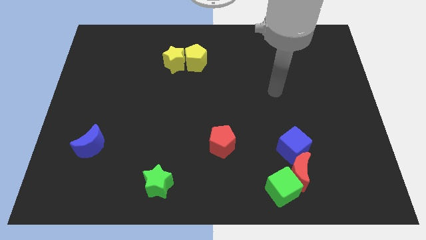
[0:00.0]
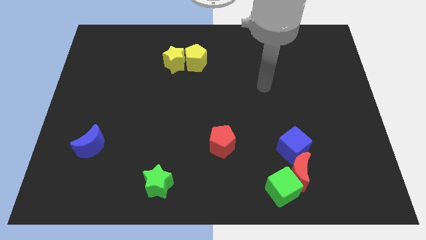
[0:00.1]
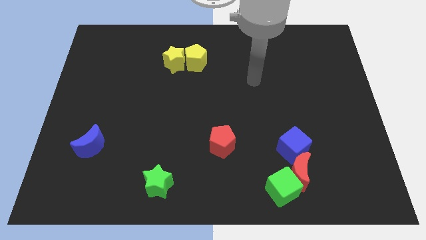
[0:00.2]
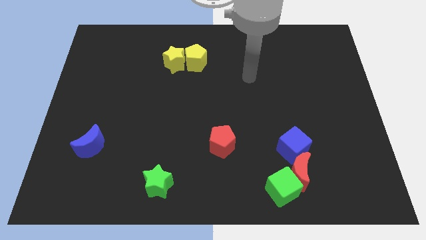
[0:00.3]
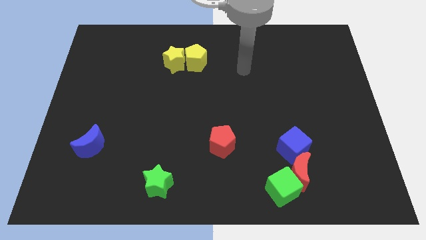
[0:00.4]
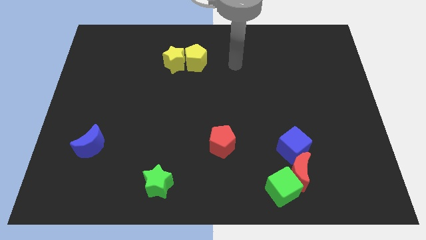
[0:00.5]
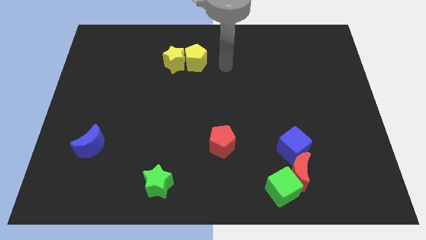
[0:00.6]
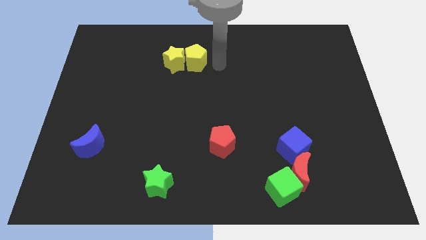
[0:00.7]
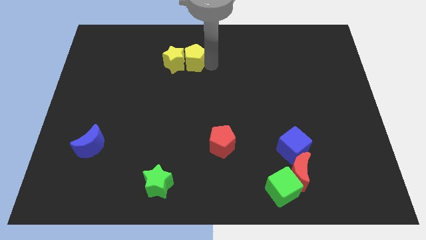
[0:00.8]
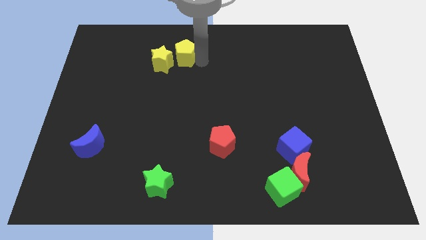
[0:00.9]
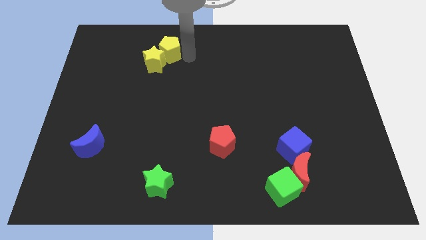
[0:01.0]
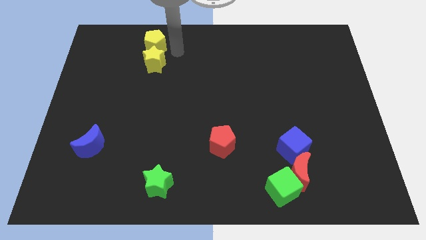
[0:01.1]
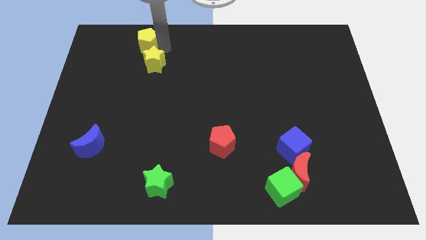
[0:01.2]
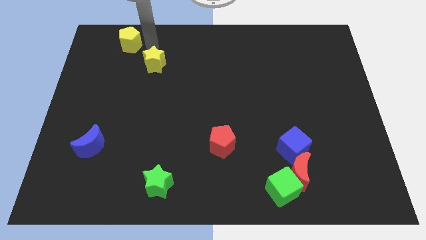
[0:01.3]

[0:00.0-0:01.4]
separate the yellow star from the yellow pentagon

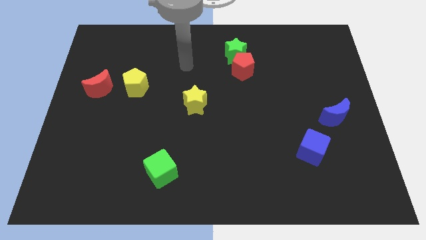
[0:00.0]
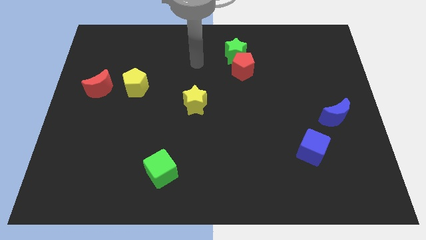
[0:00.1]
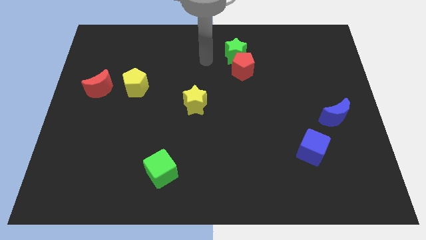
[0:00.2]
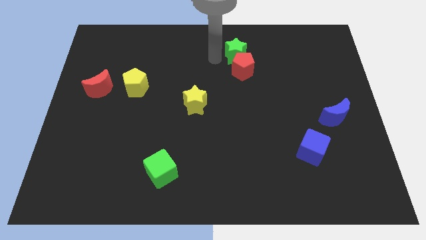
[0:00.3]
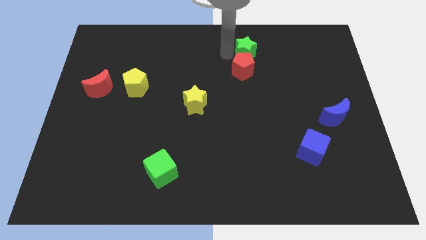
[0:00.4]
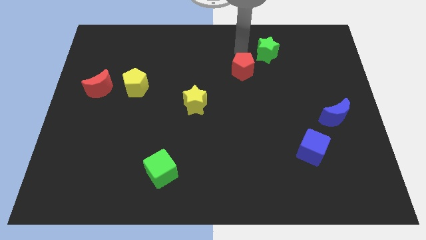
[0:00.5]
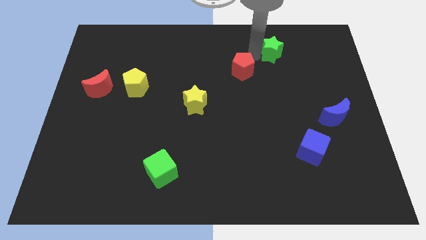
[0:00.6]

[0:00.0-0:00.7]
separate the red pentagon from the green star

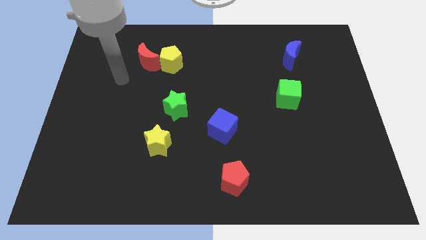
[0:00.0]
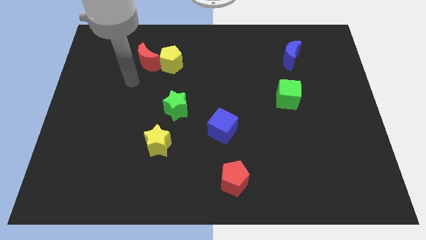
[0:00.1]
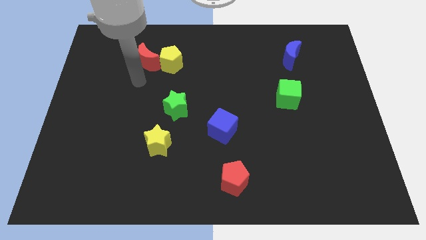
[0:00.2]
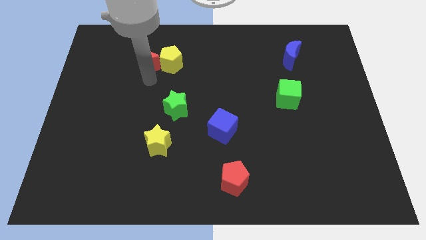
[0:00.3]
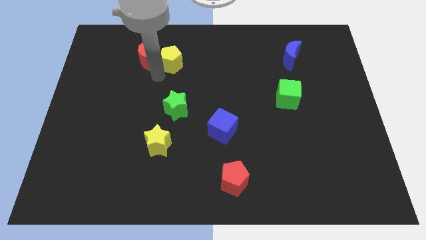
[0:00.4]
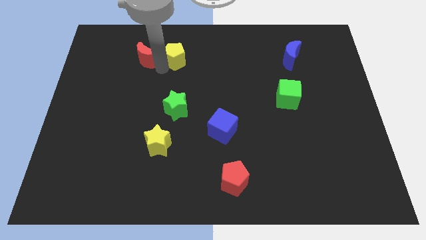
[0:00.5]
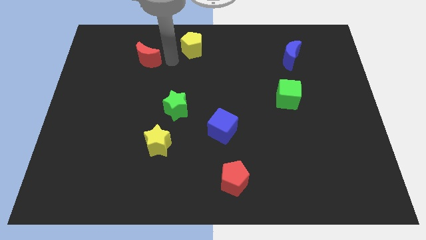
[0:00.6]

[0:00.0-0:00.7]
move the red moon away from the yellow pentagon

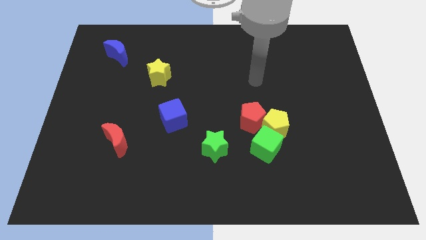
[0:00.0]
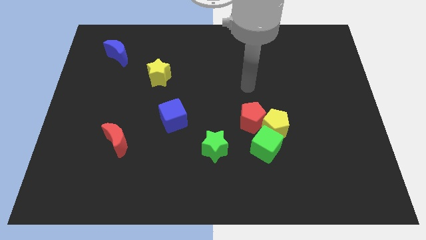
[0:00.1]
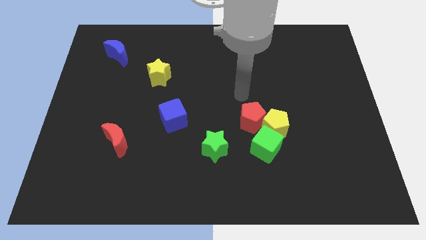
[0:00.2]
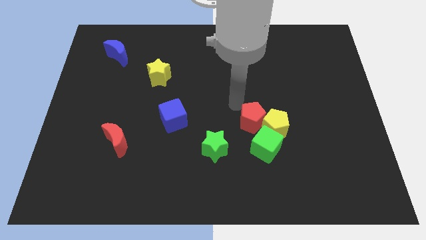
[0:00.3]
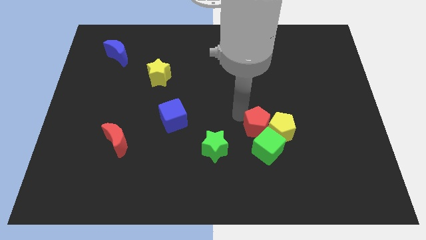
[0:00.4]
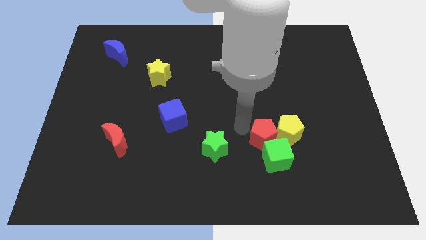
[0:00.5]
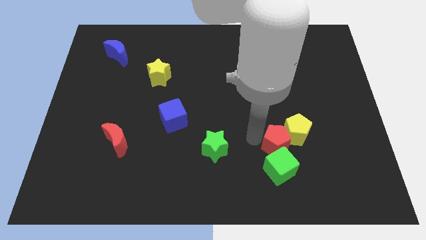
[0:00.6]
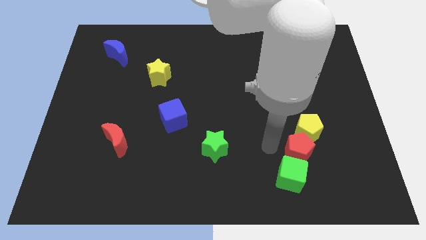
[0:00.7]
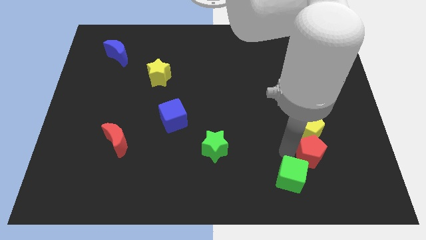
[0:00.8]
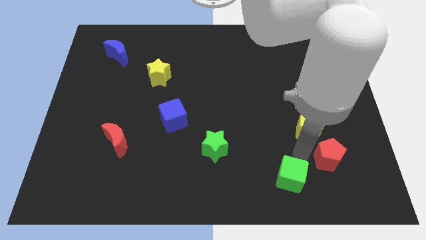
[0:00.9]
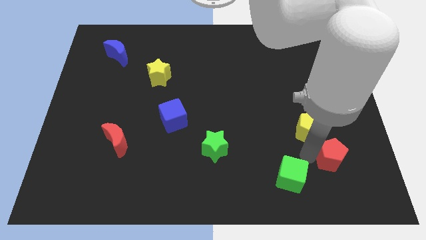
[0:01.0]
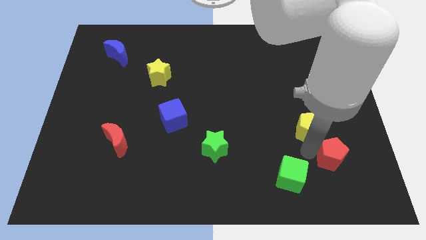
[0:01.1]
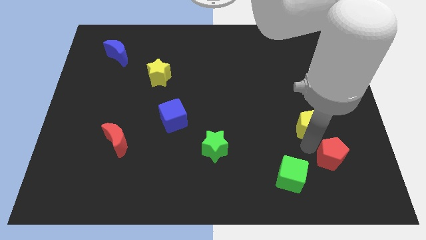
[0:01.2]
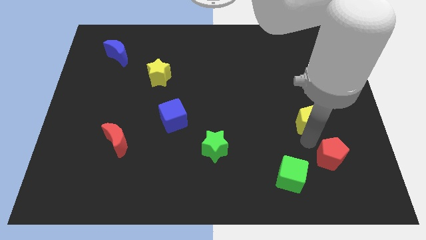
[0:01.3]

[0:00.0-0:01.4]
pull the yellow pentagon apart from the red pentagon and green cube

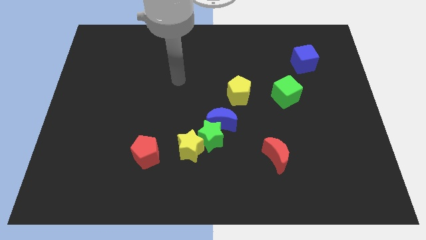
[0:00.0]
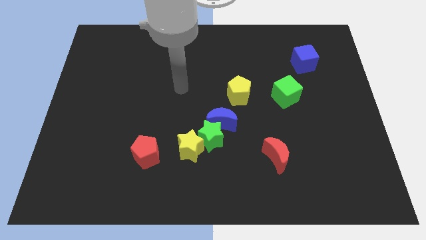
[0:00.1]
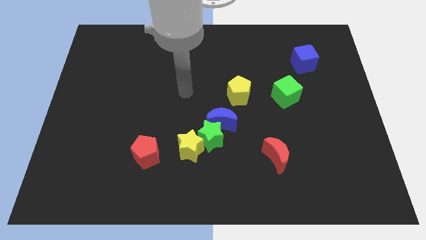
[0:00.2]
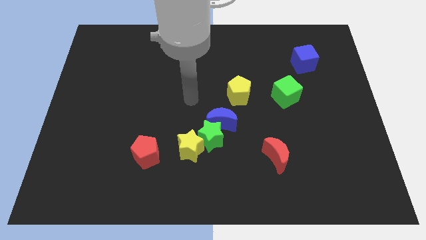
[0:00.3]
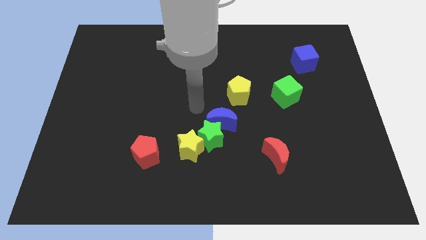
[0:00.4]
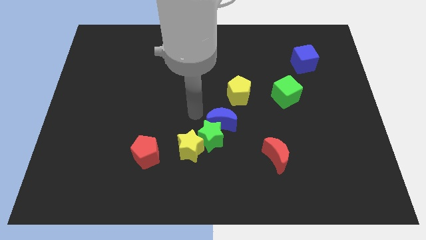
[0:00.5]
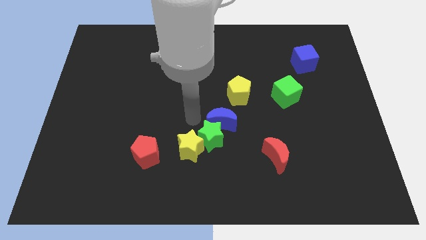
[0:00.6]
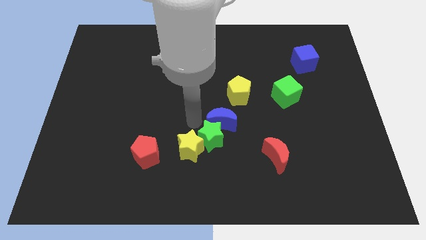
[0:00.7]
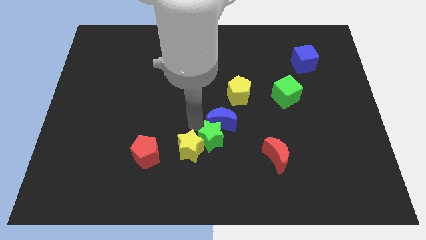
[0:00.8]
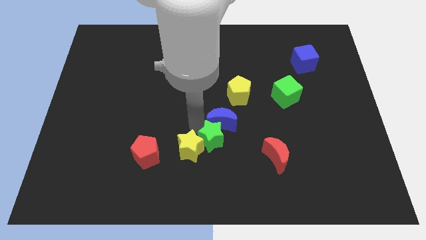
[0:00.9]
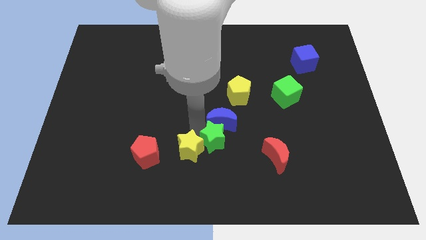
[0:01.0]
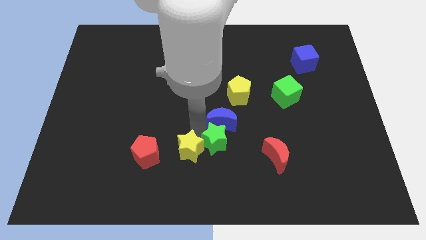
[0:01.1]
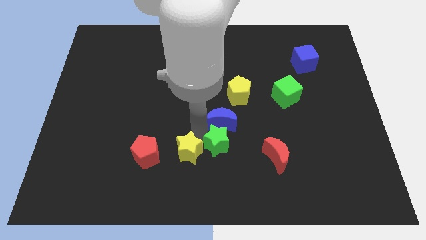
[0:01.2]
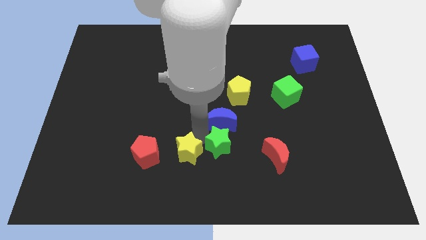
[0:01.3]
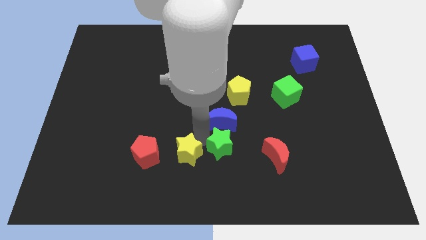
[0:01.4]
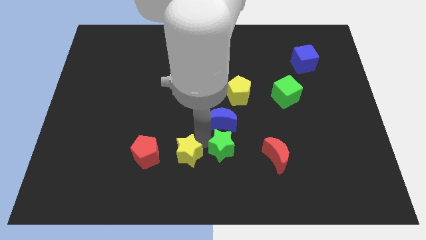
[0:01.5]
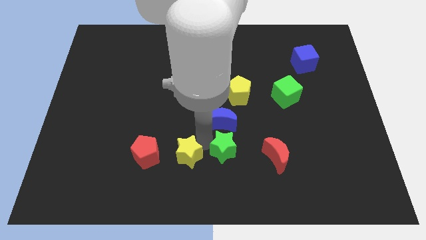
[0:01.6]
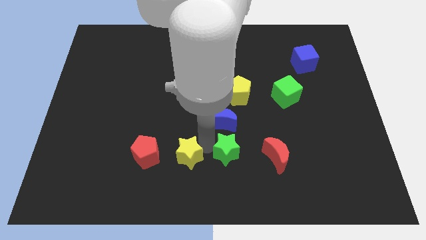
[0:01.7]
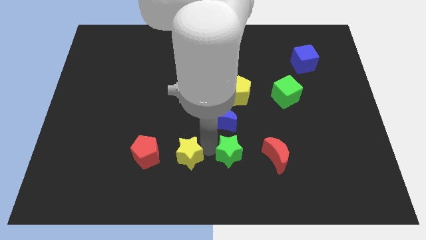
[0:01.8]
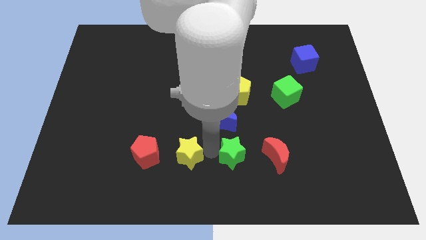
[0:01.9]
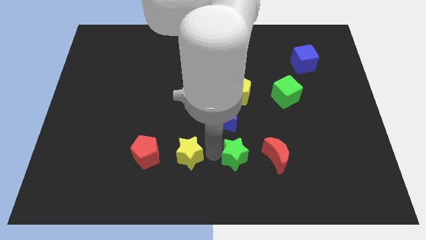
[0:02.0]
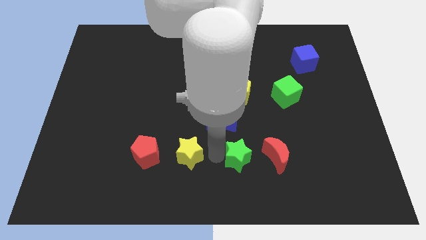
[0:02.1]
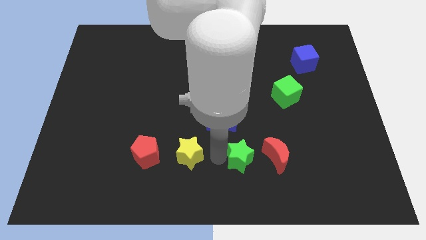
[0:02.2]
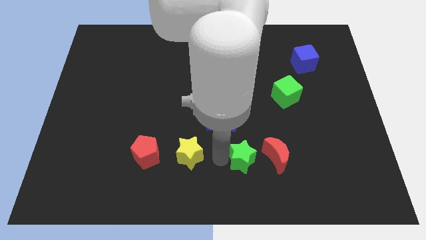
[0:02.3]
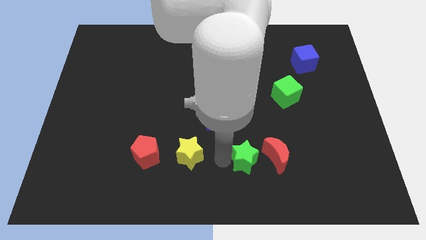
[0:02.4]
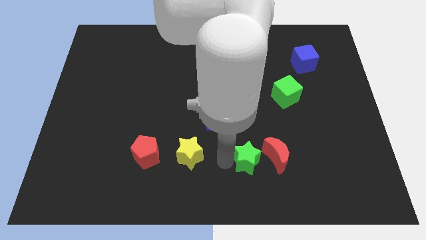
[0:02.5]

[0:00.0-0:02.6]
separate the green star from the blue moon and yellow star

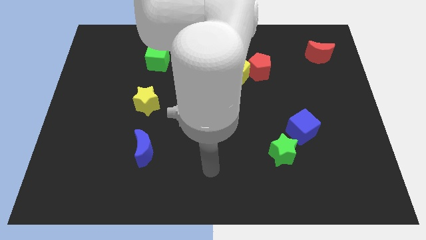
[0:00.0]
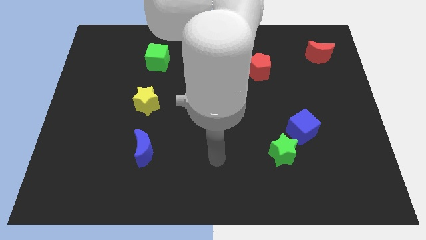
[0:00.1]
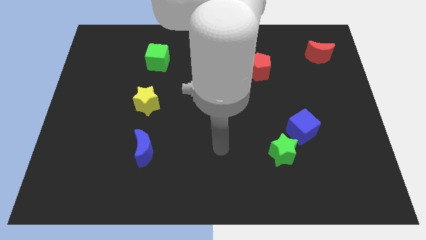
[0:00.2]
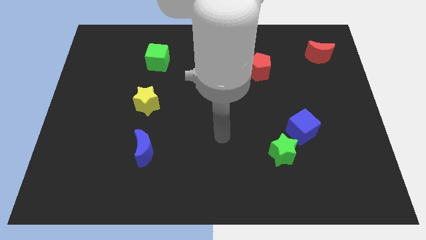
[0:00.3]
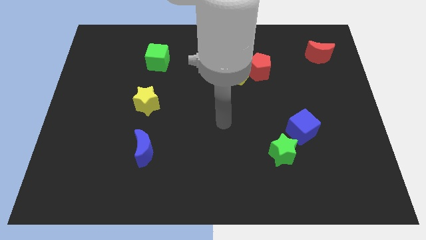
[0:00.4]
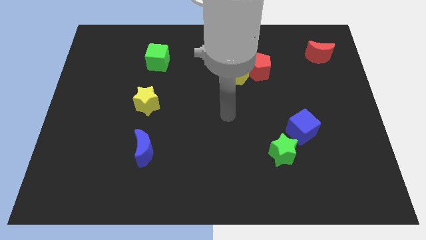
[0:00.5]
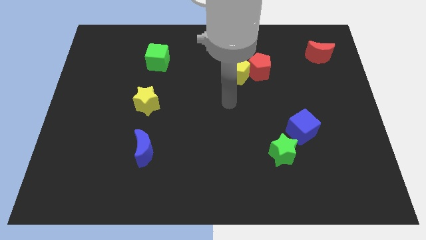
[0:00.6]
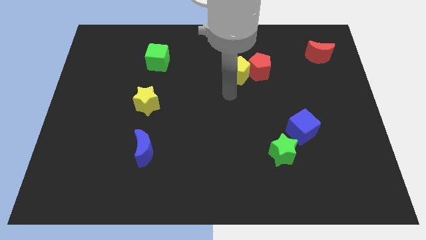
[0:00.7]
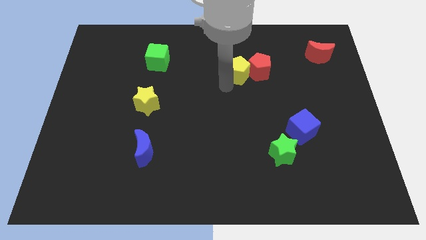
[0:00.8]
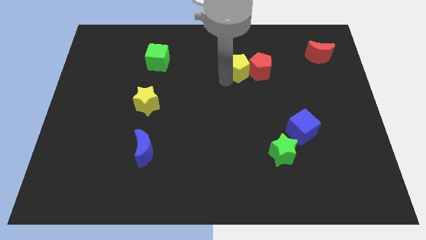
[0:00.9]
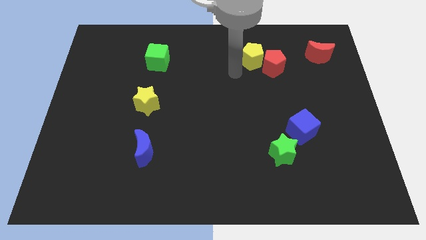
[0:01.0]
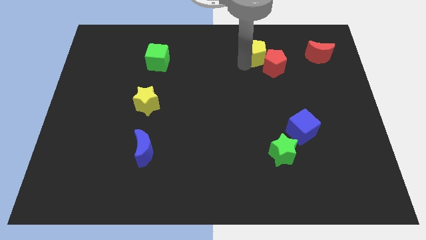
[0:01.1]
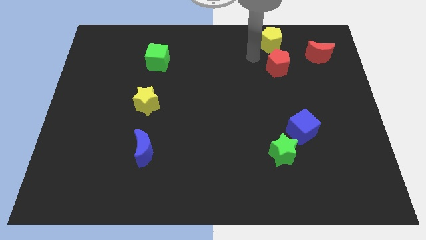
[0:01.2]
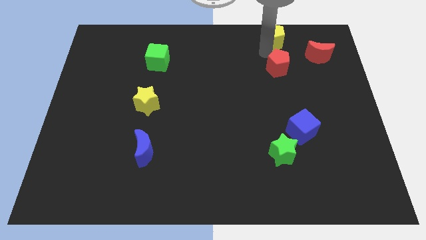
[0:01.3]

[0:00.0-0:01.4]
pull the red pentagon apart from the yellow pentagon

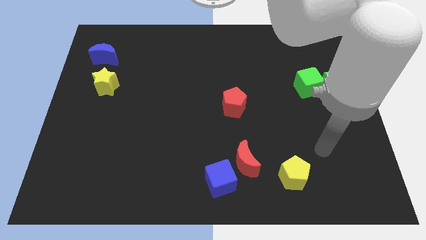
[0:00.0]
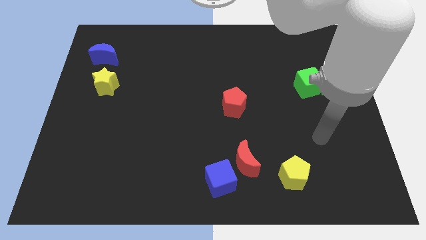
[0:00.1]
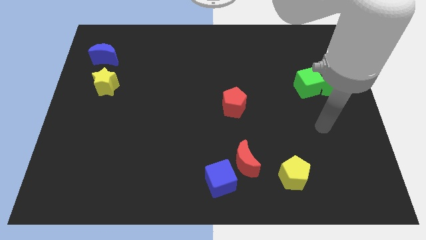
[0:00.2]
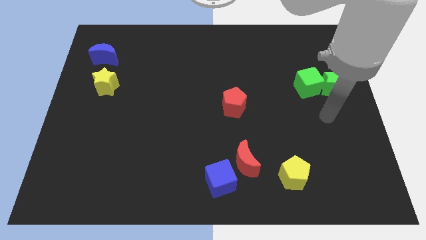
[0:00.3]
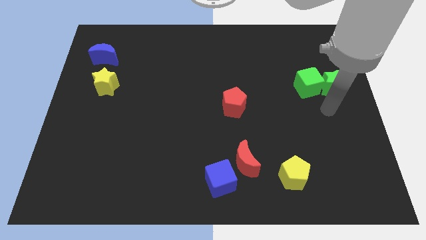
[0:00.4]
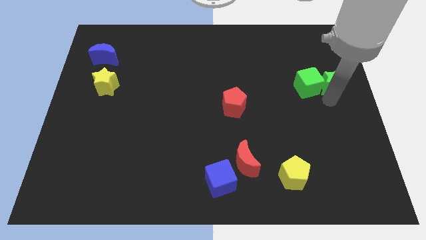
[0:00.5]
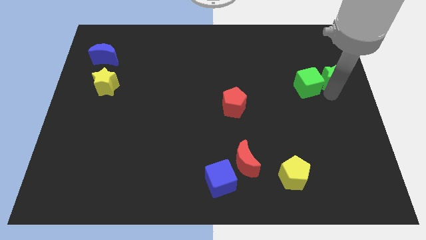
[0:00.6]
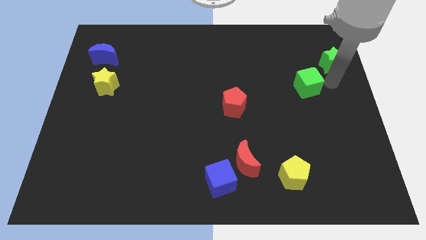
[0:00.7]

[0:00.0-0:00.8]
pull the green cube apart from the green star

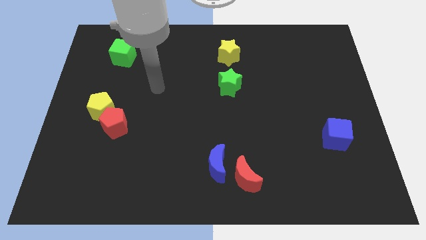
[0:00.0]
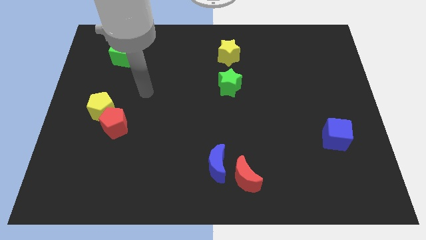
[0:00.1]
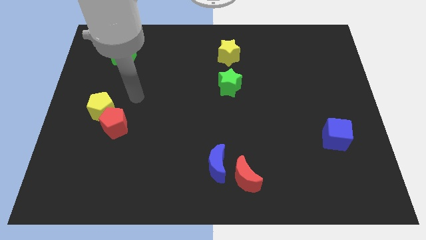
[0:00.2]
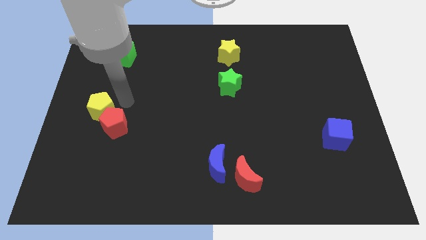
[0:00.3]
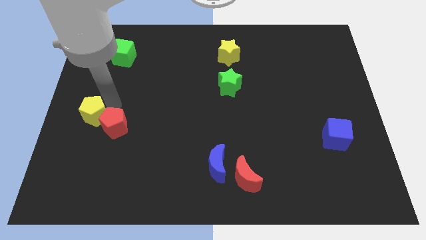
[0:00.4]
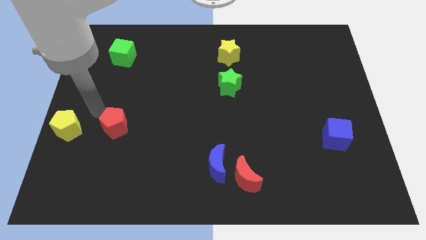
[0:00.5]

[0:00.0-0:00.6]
move the red pentagon away from the yellow pentagon
